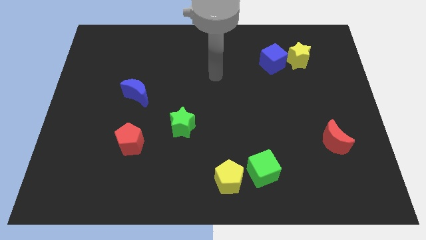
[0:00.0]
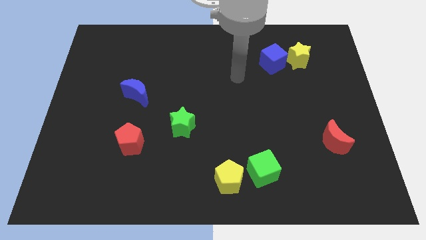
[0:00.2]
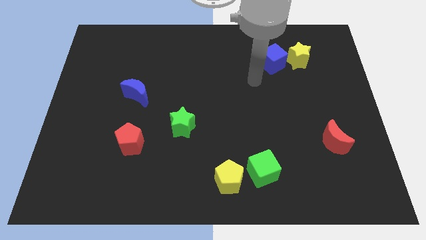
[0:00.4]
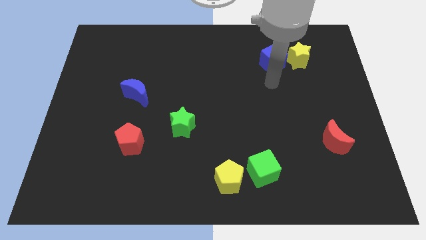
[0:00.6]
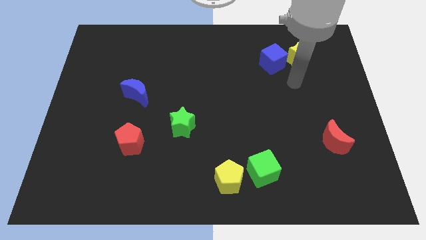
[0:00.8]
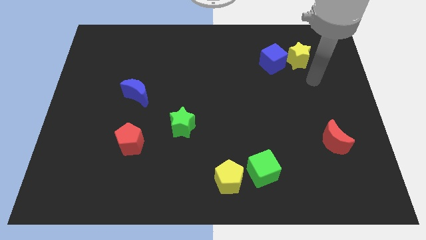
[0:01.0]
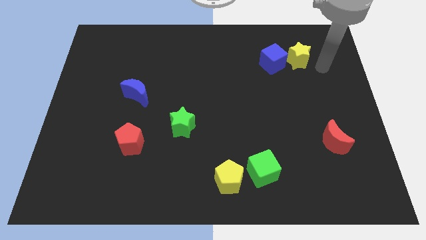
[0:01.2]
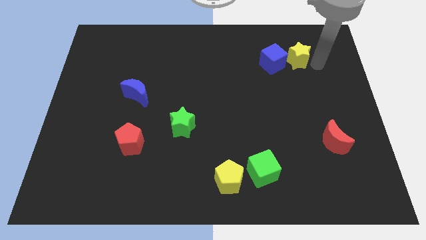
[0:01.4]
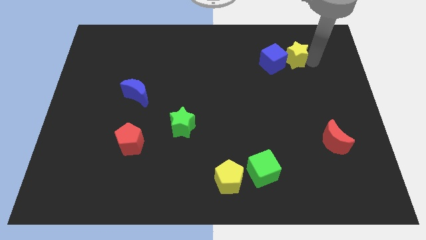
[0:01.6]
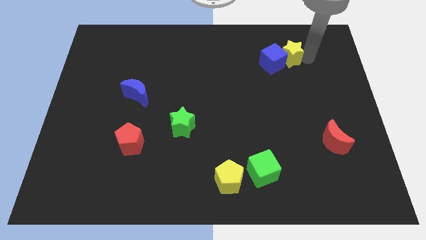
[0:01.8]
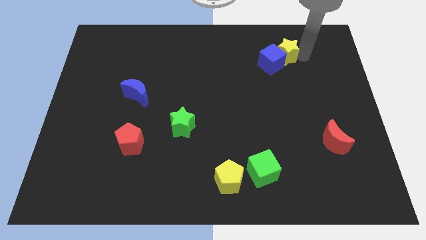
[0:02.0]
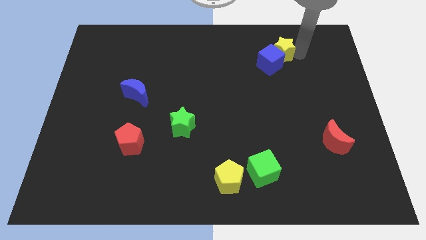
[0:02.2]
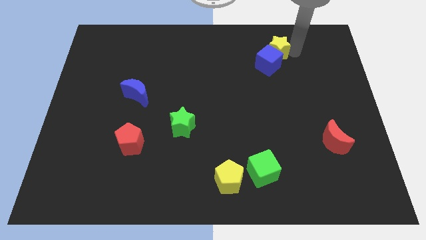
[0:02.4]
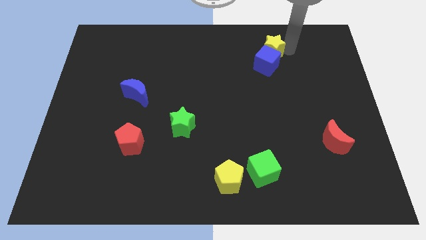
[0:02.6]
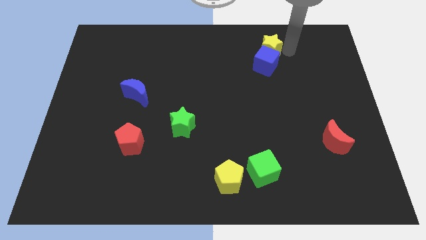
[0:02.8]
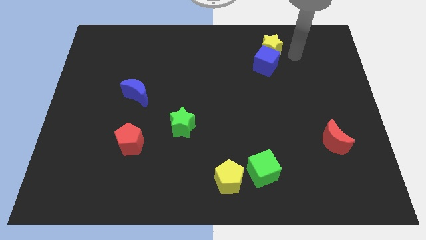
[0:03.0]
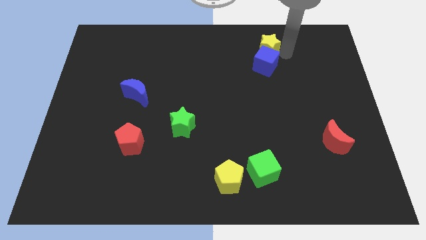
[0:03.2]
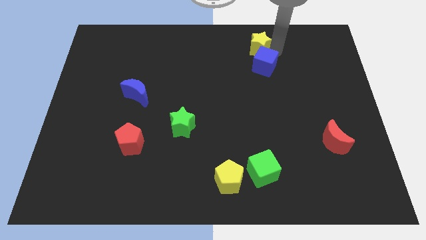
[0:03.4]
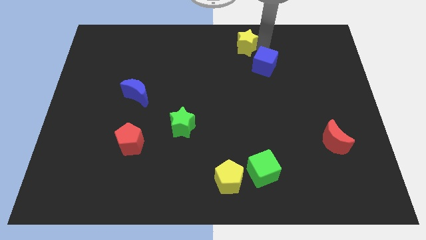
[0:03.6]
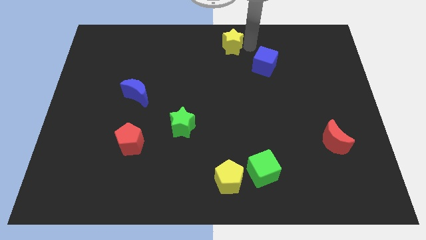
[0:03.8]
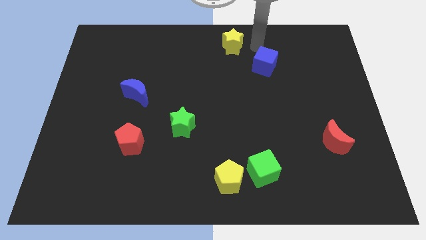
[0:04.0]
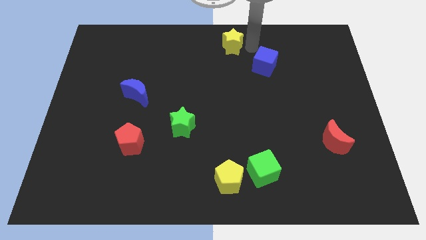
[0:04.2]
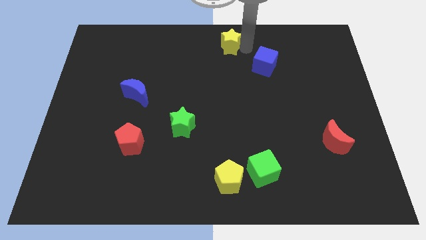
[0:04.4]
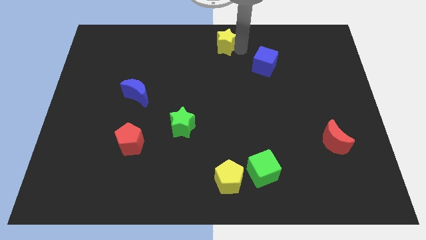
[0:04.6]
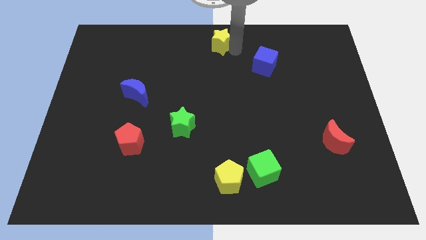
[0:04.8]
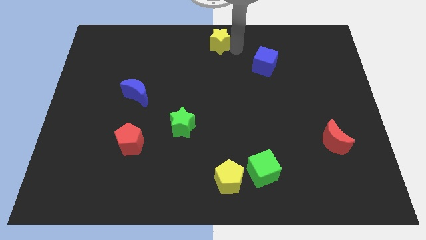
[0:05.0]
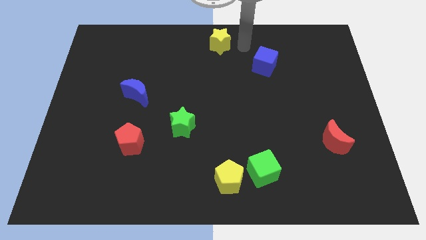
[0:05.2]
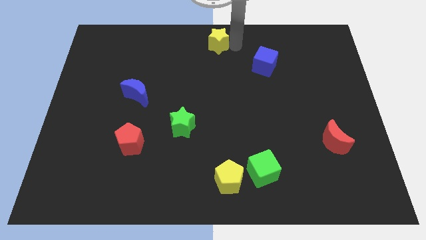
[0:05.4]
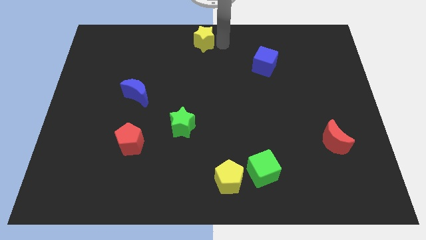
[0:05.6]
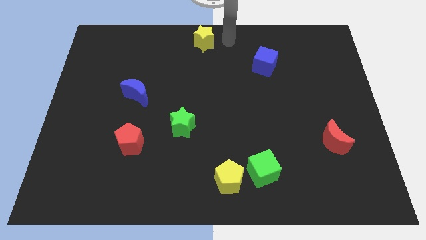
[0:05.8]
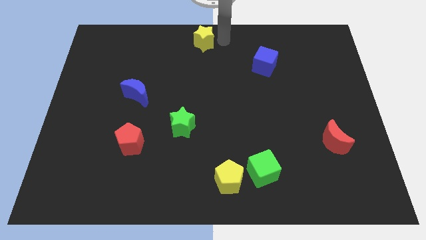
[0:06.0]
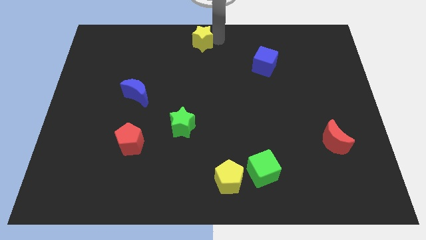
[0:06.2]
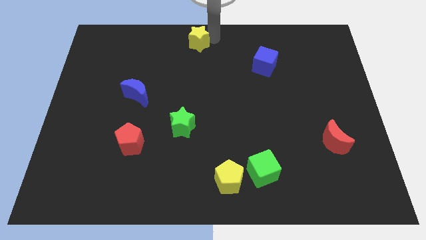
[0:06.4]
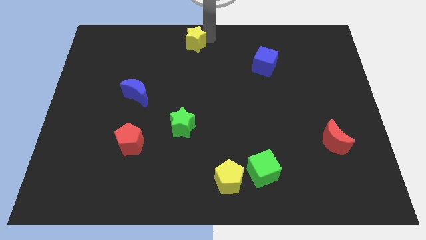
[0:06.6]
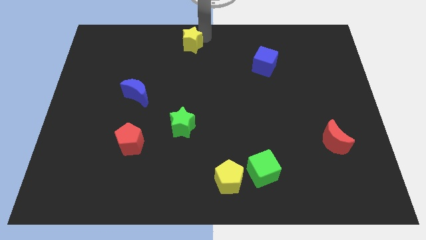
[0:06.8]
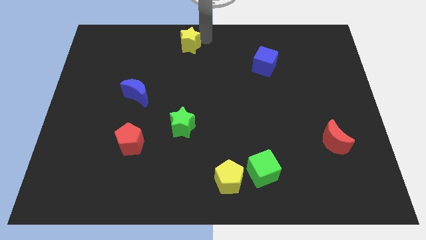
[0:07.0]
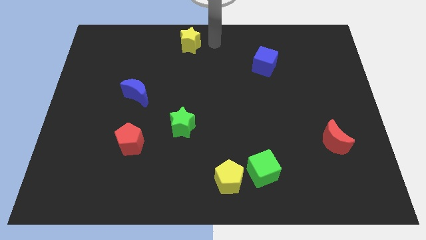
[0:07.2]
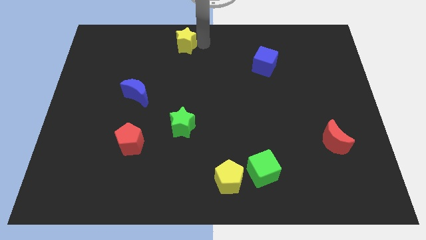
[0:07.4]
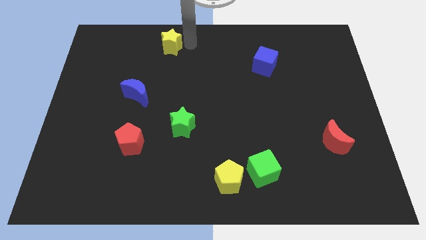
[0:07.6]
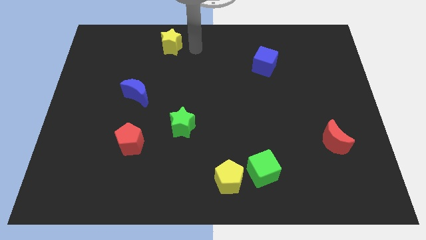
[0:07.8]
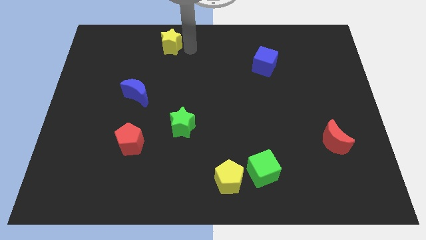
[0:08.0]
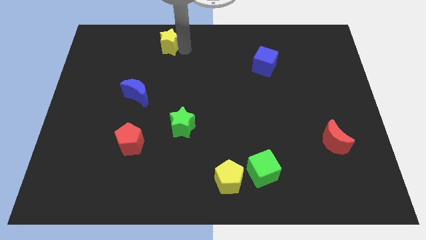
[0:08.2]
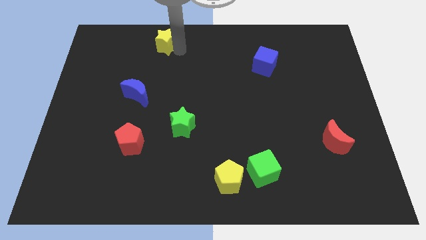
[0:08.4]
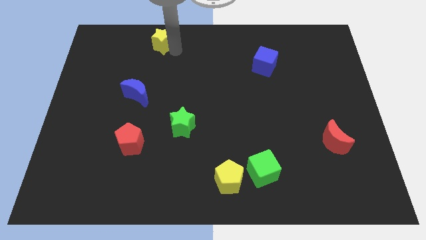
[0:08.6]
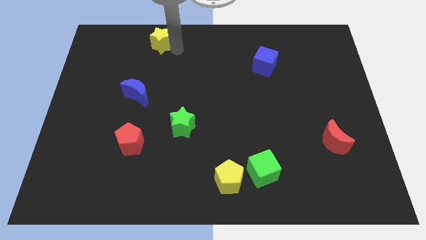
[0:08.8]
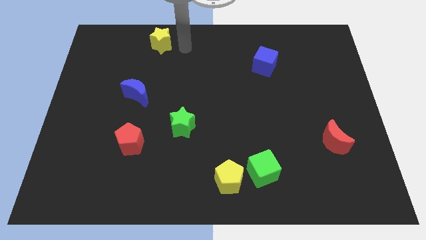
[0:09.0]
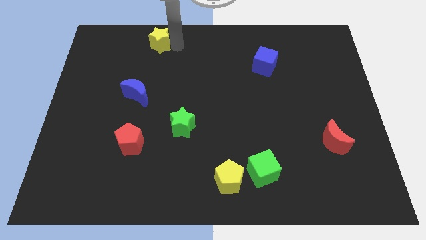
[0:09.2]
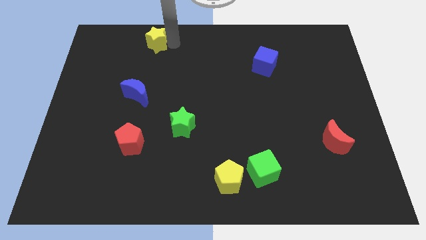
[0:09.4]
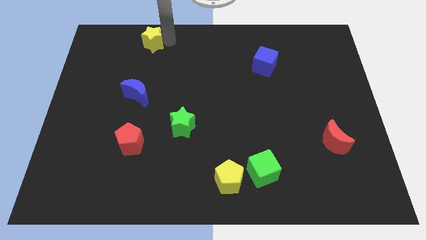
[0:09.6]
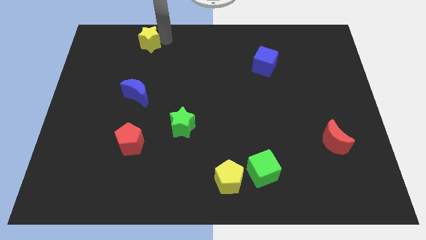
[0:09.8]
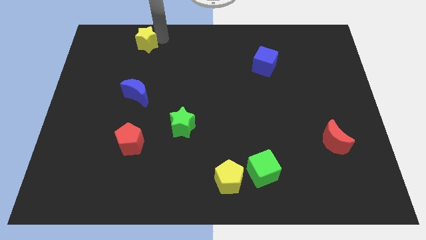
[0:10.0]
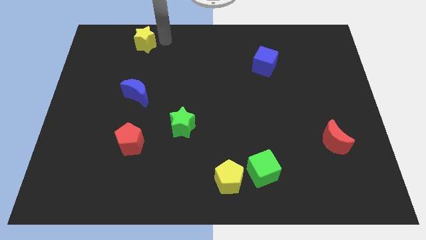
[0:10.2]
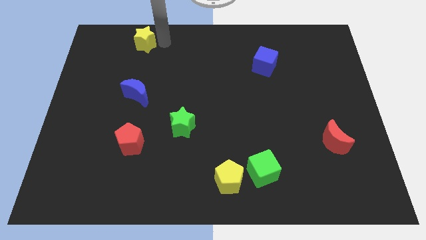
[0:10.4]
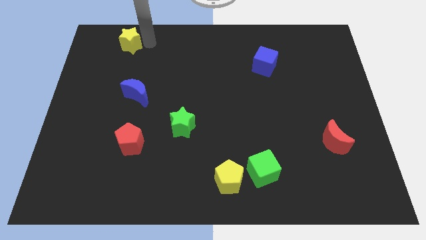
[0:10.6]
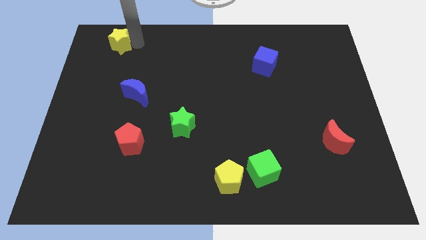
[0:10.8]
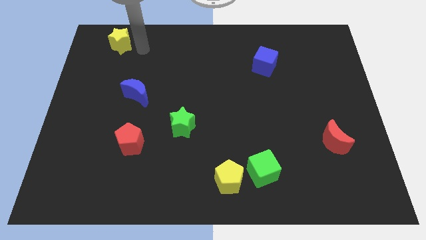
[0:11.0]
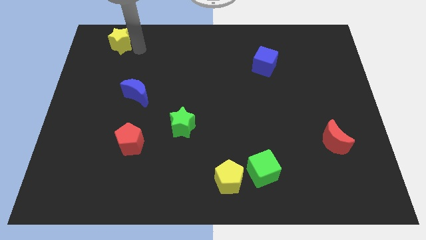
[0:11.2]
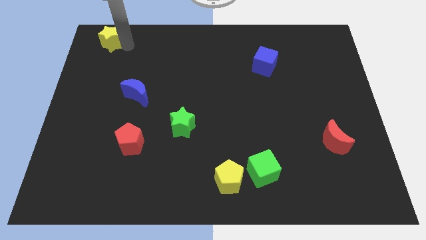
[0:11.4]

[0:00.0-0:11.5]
slide the yellow star to the top left corner

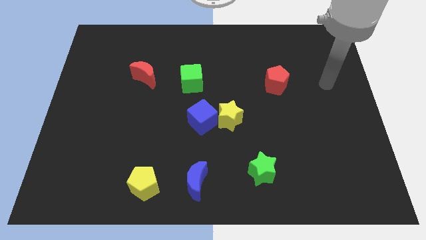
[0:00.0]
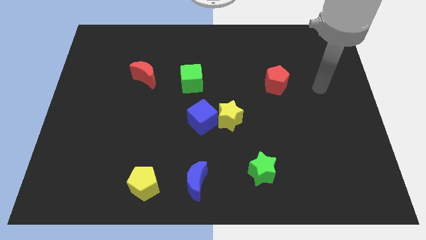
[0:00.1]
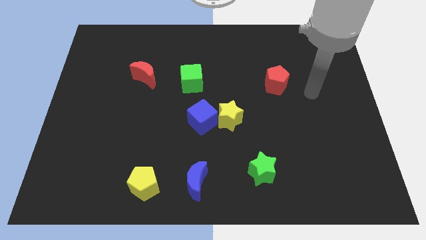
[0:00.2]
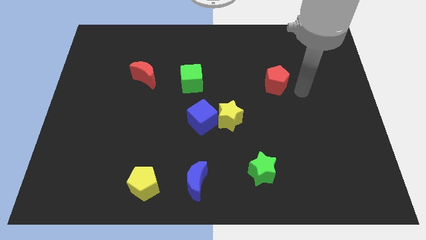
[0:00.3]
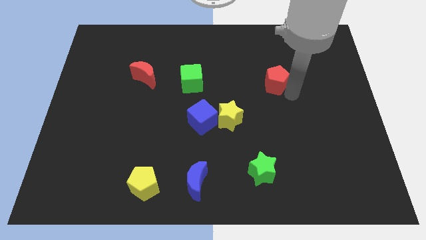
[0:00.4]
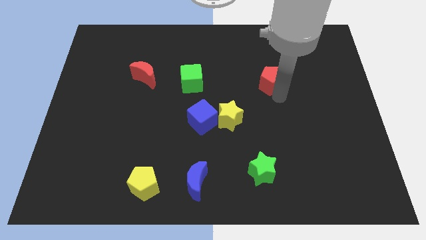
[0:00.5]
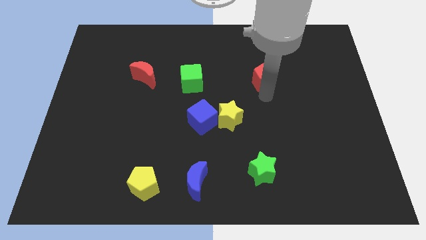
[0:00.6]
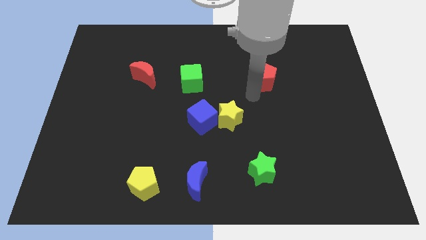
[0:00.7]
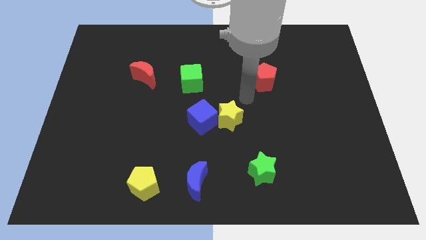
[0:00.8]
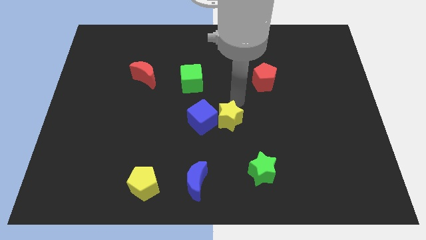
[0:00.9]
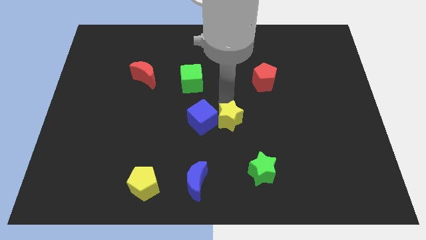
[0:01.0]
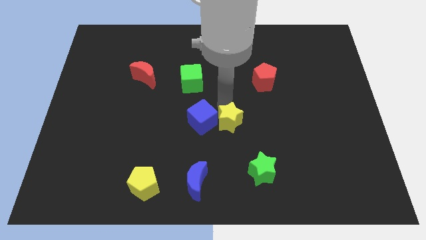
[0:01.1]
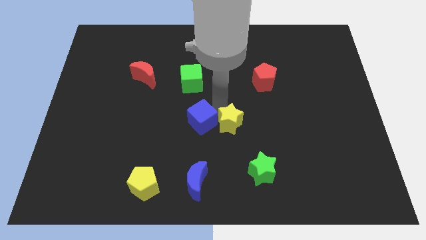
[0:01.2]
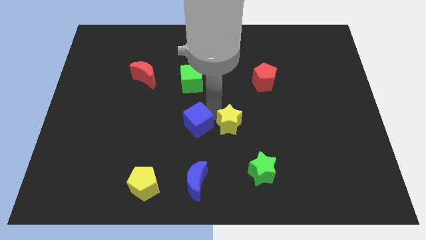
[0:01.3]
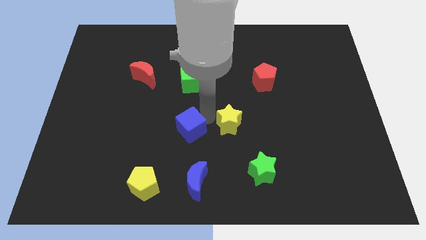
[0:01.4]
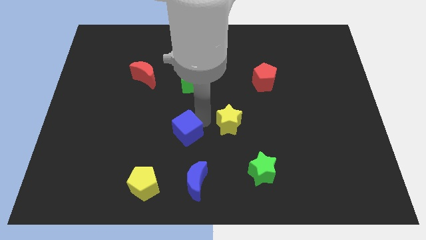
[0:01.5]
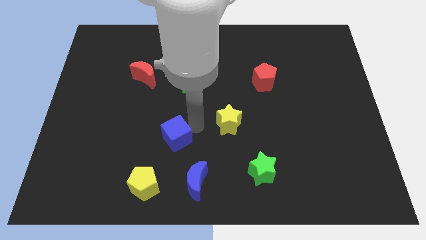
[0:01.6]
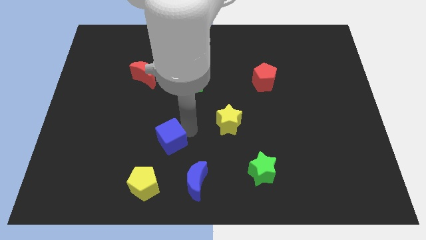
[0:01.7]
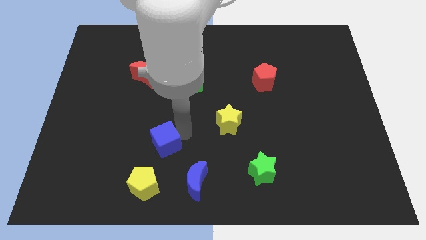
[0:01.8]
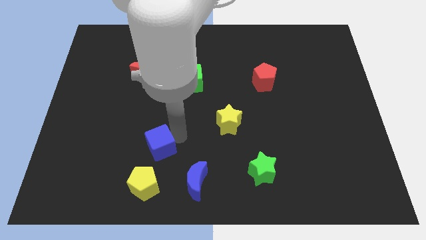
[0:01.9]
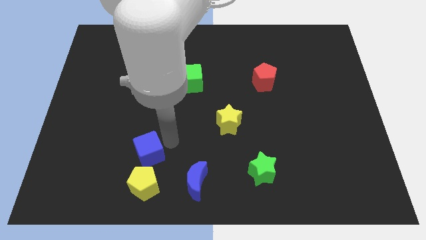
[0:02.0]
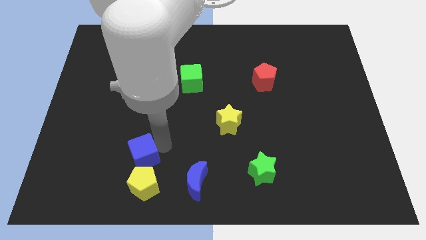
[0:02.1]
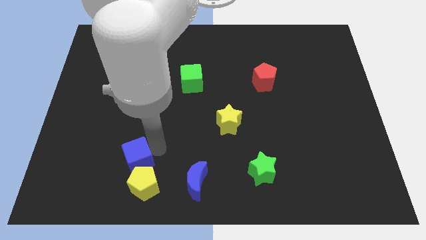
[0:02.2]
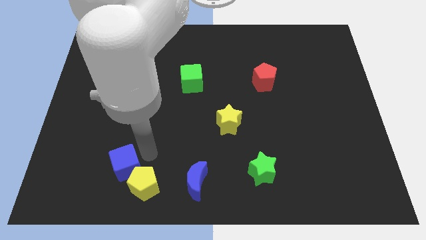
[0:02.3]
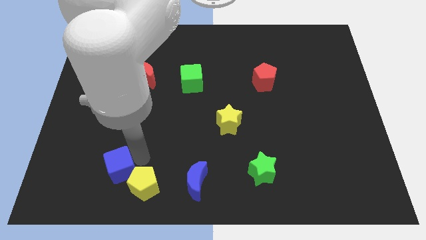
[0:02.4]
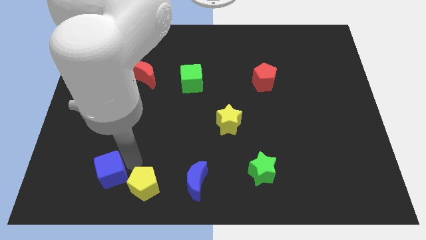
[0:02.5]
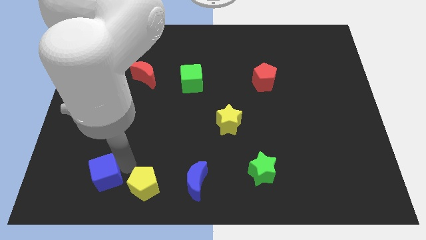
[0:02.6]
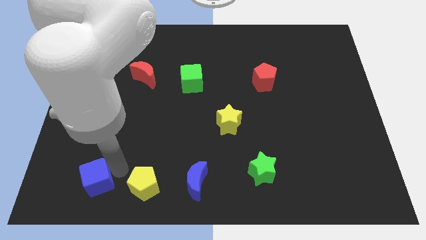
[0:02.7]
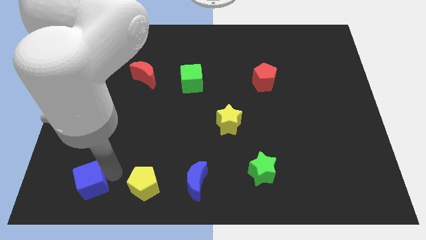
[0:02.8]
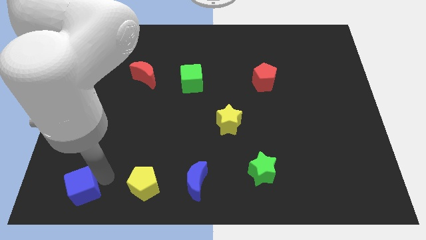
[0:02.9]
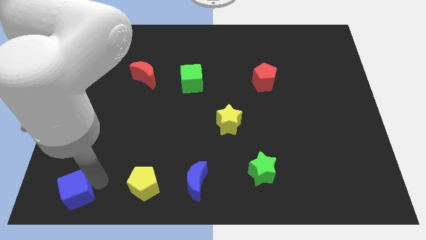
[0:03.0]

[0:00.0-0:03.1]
push the blue cube to the bottom left corner
